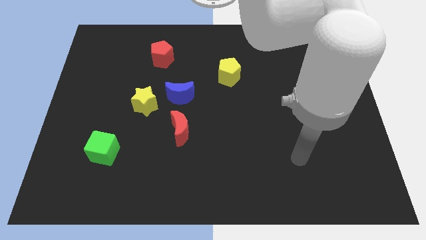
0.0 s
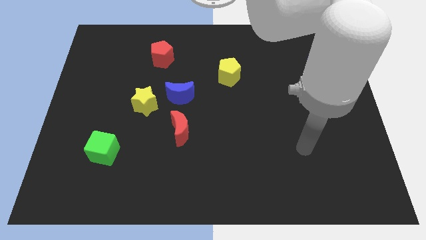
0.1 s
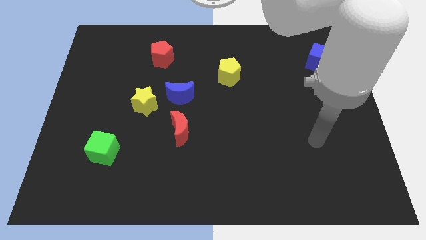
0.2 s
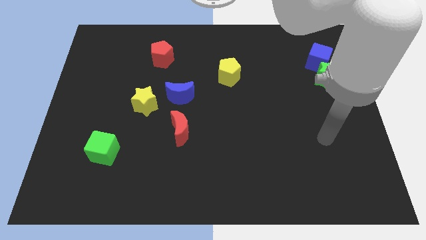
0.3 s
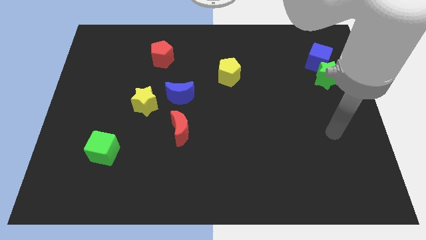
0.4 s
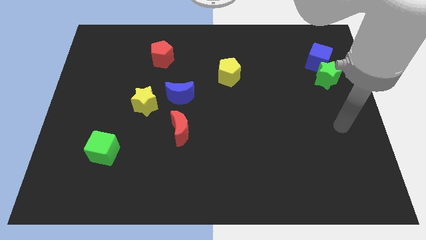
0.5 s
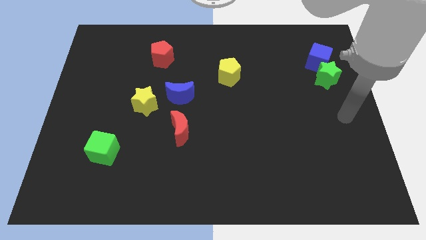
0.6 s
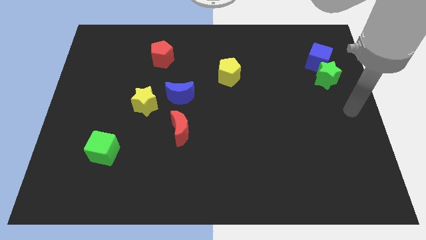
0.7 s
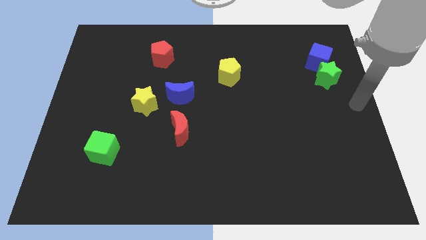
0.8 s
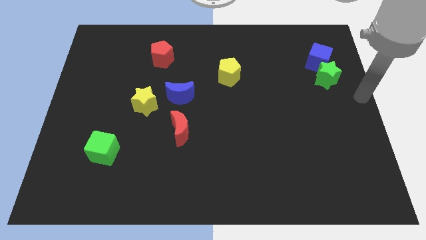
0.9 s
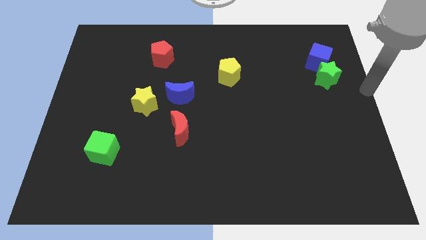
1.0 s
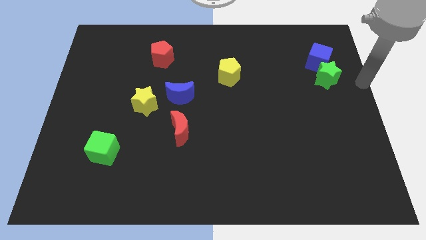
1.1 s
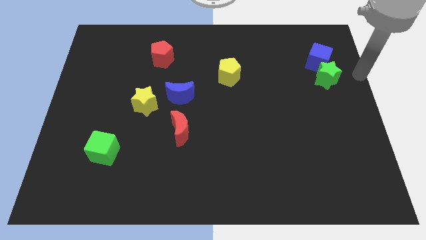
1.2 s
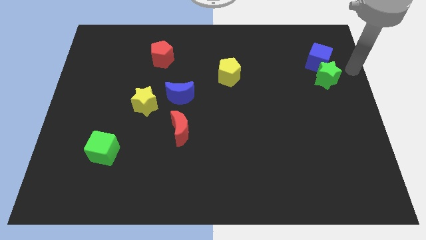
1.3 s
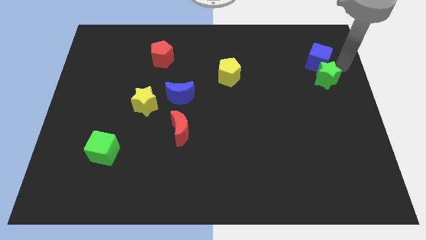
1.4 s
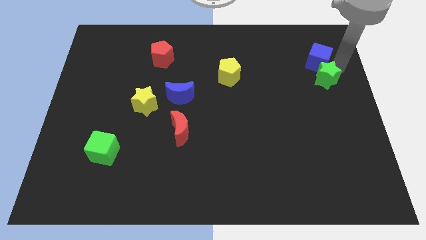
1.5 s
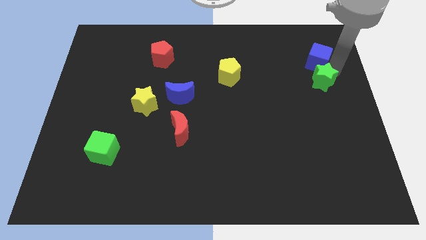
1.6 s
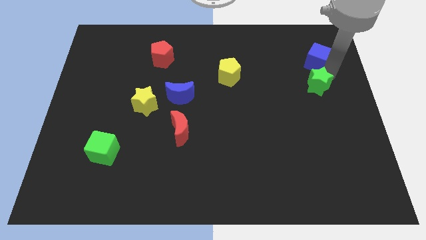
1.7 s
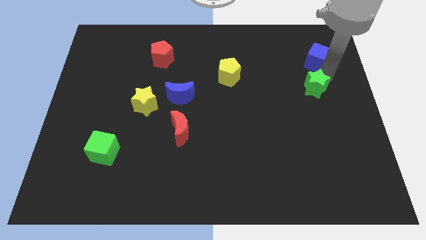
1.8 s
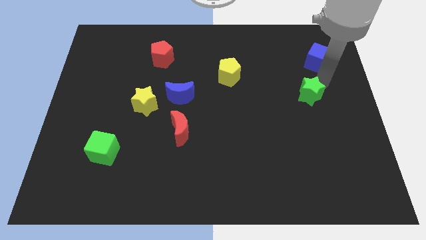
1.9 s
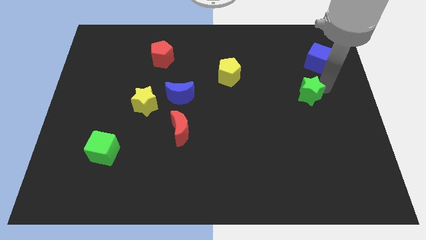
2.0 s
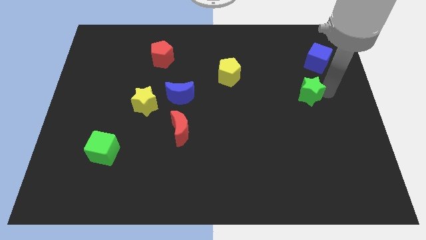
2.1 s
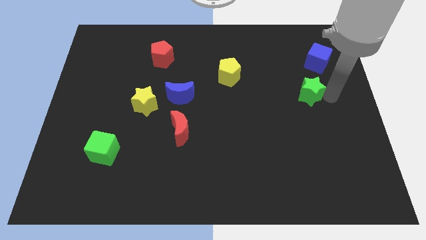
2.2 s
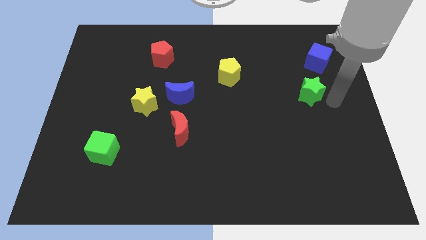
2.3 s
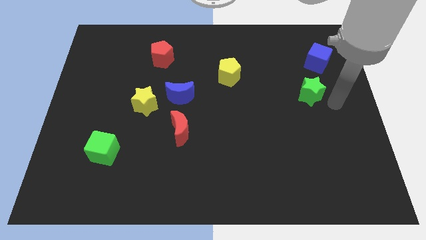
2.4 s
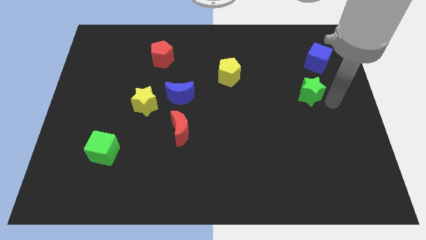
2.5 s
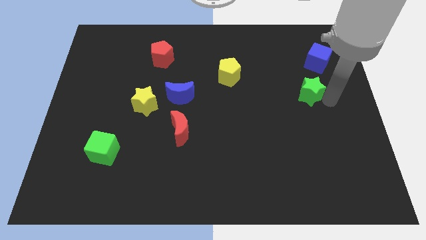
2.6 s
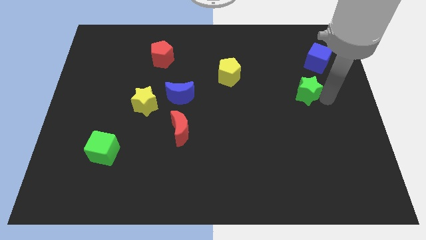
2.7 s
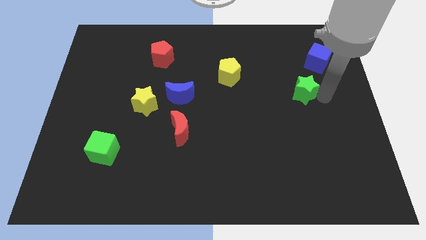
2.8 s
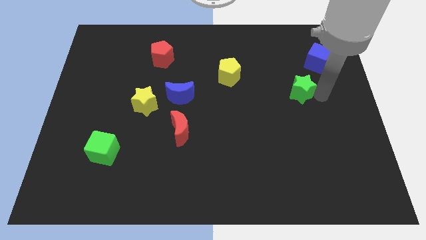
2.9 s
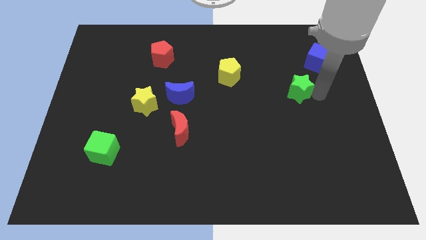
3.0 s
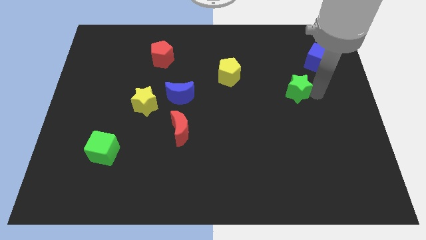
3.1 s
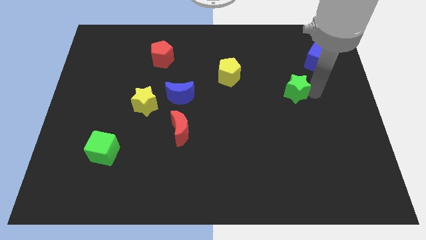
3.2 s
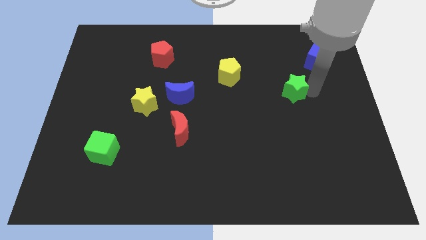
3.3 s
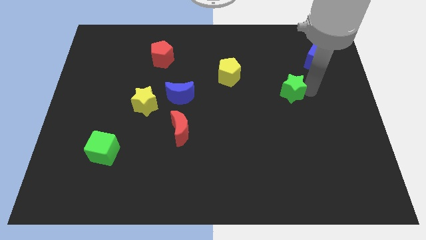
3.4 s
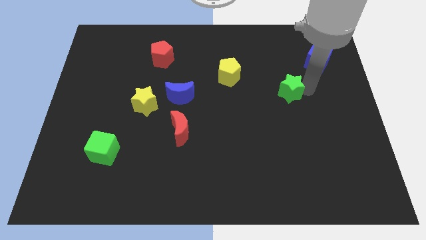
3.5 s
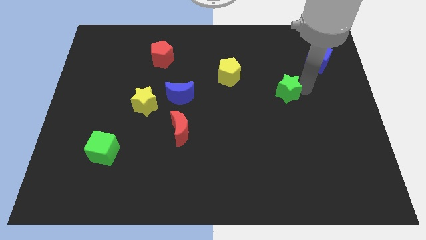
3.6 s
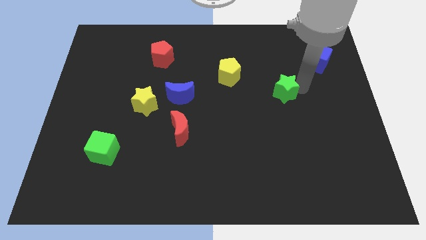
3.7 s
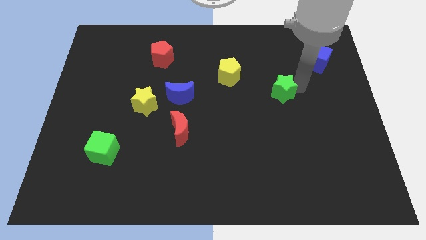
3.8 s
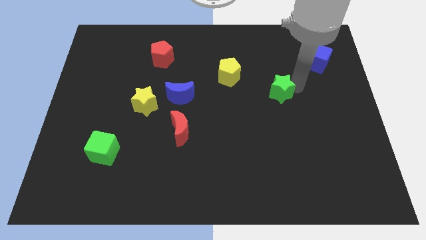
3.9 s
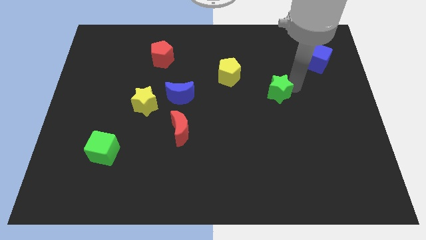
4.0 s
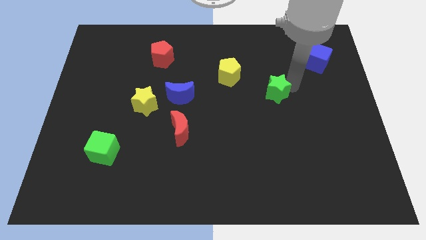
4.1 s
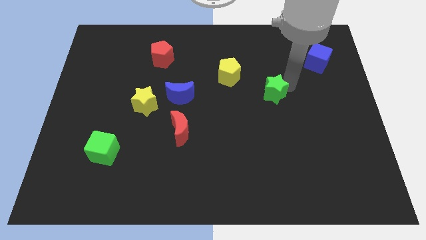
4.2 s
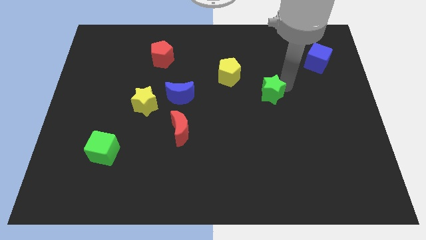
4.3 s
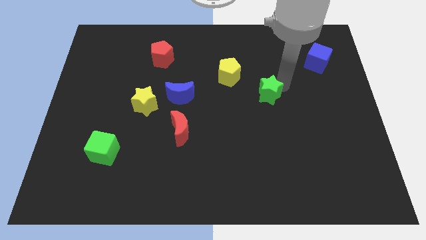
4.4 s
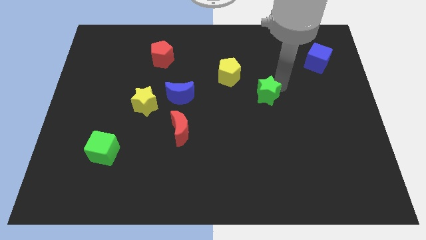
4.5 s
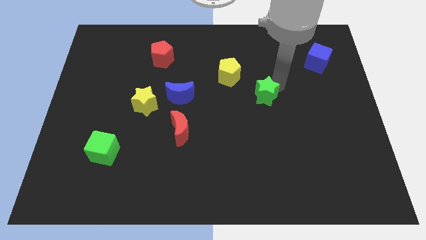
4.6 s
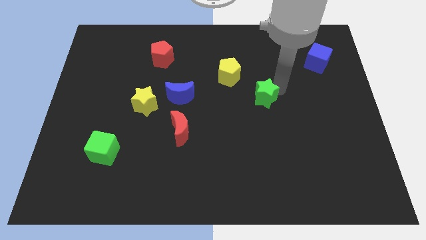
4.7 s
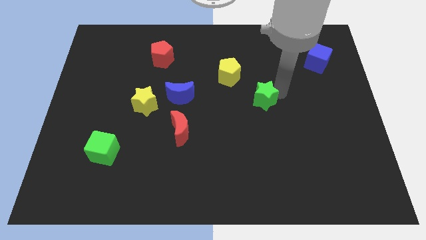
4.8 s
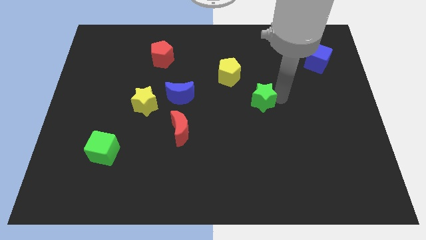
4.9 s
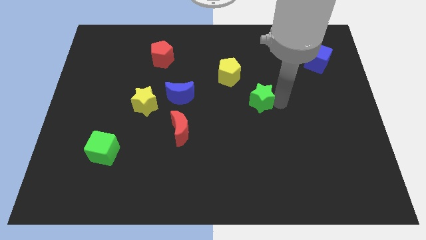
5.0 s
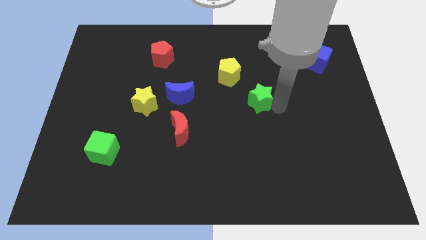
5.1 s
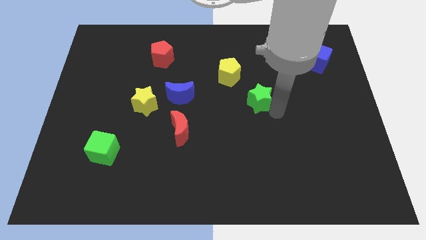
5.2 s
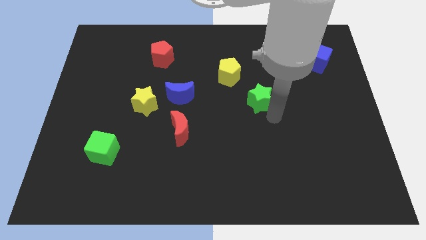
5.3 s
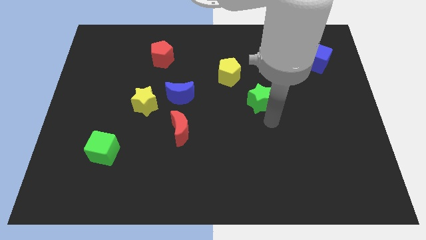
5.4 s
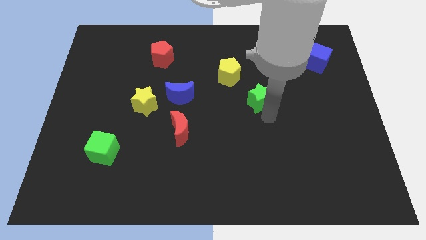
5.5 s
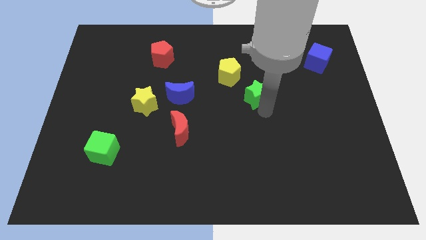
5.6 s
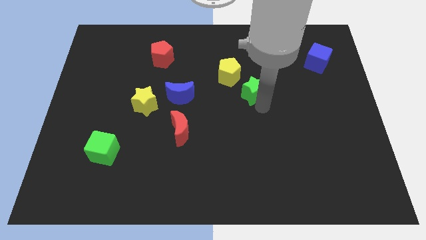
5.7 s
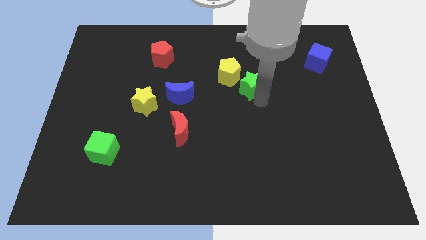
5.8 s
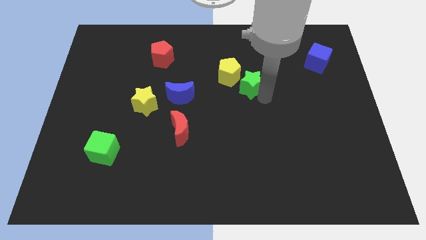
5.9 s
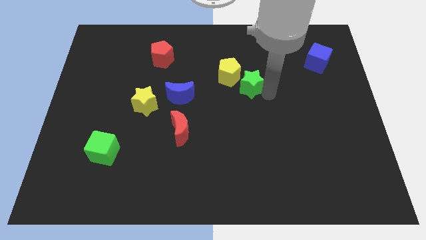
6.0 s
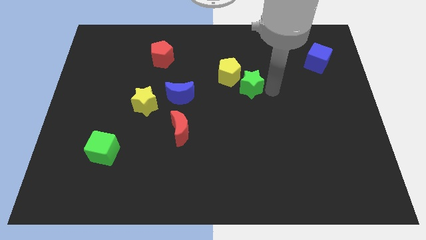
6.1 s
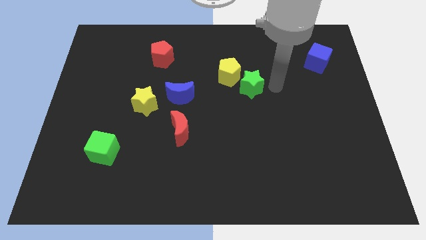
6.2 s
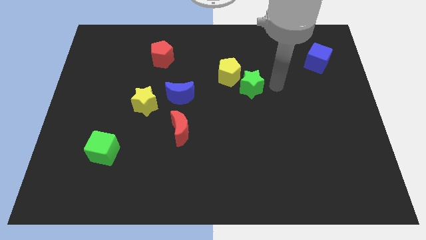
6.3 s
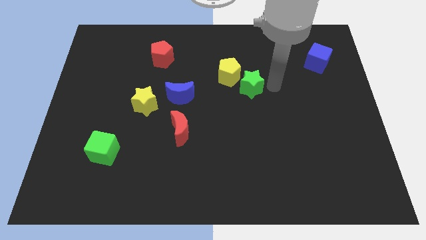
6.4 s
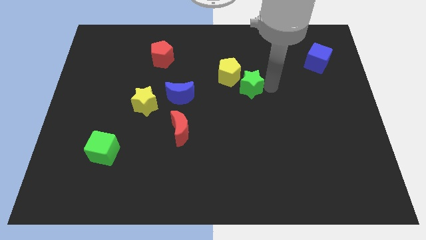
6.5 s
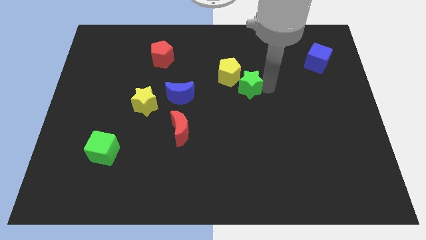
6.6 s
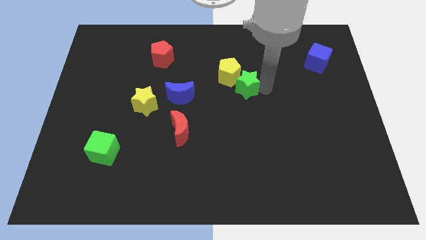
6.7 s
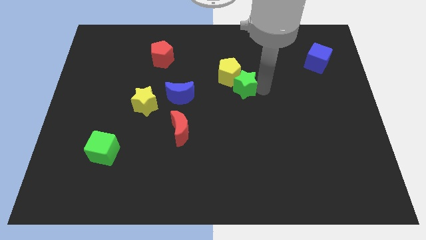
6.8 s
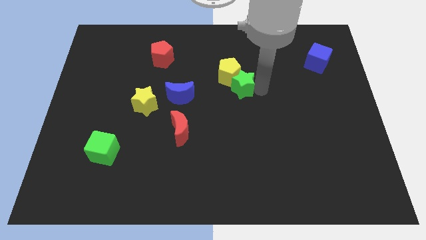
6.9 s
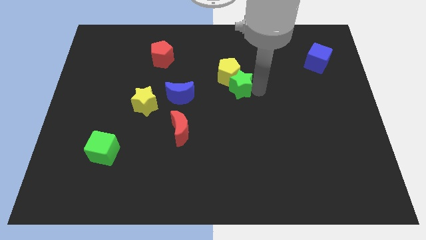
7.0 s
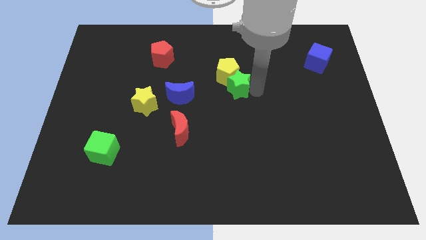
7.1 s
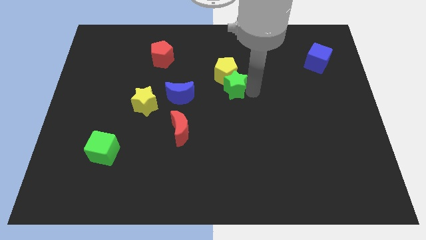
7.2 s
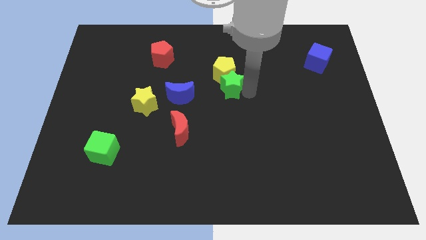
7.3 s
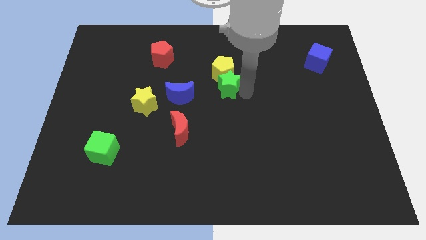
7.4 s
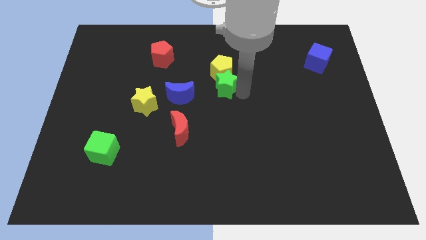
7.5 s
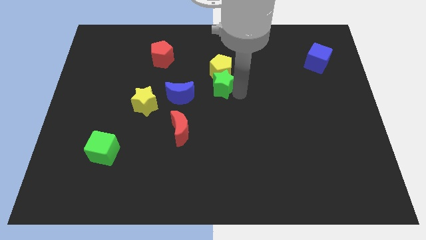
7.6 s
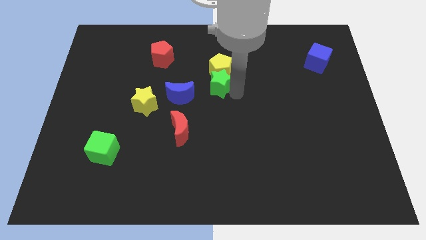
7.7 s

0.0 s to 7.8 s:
put the green star to the top right of the blue moon
